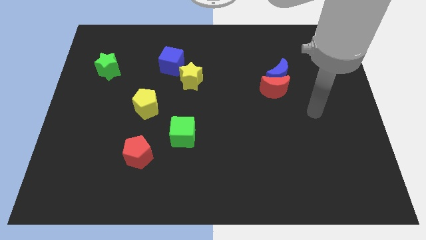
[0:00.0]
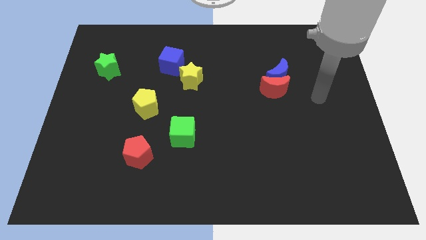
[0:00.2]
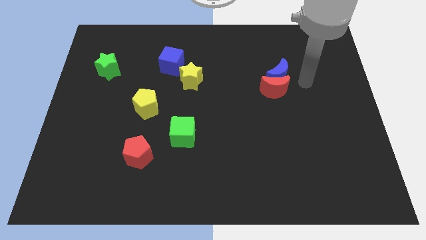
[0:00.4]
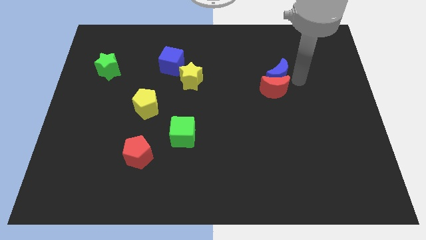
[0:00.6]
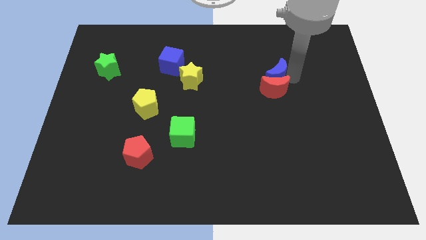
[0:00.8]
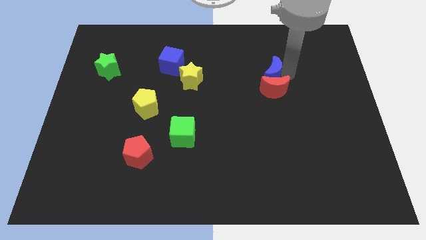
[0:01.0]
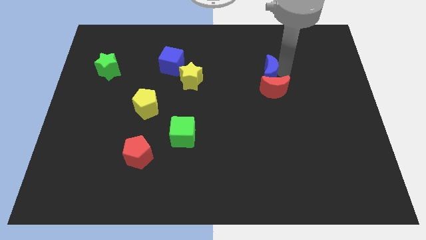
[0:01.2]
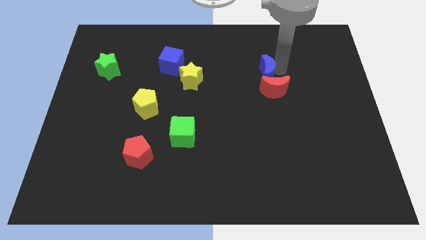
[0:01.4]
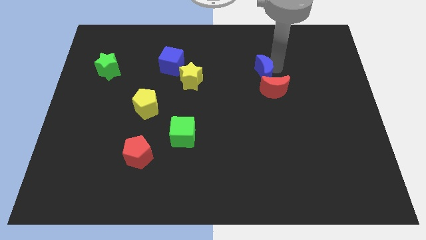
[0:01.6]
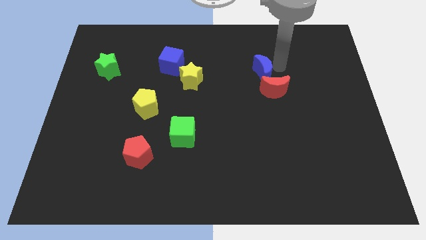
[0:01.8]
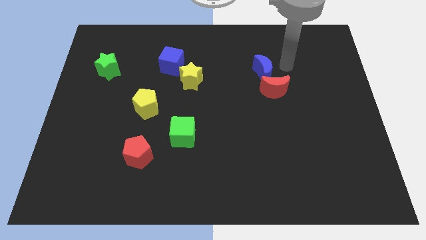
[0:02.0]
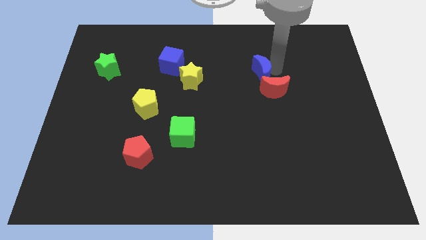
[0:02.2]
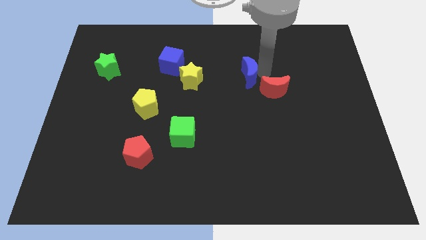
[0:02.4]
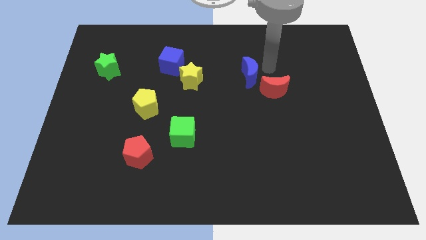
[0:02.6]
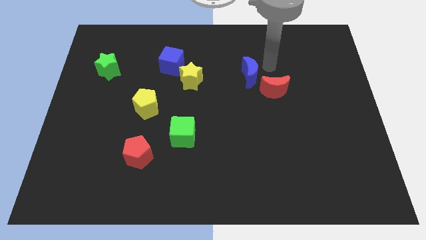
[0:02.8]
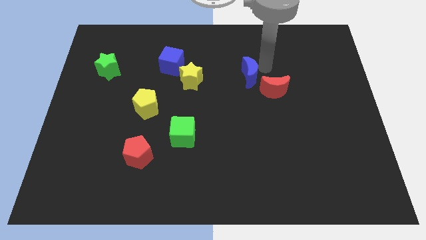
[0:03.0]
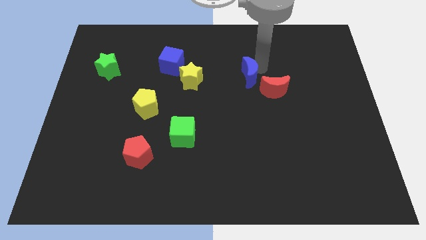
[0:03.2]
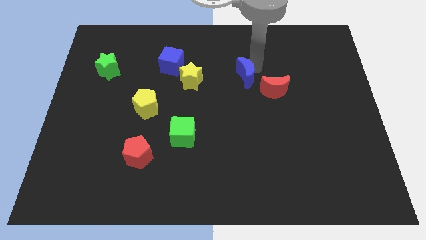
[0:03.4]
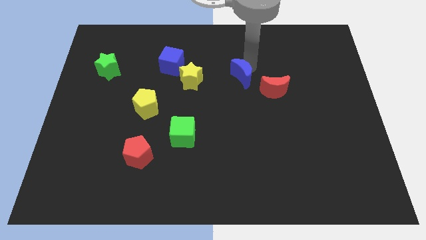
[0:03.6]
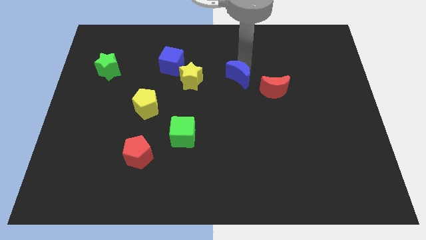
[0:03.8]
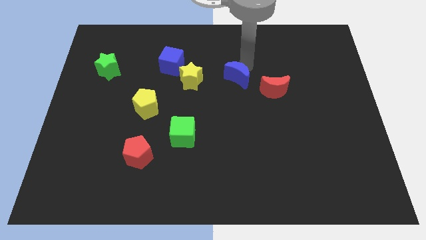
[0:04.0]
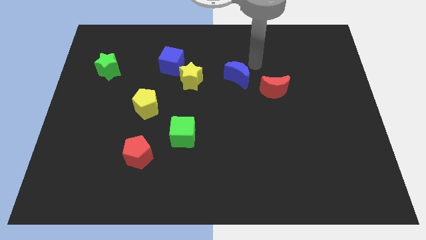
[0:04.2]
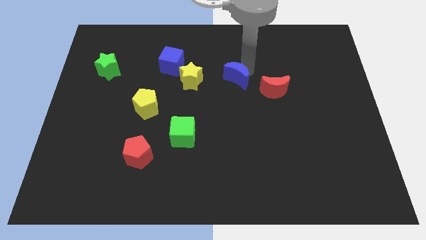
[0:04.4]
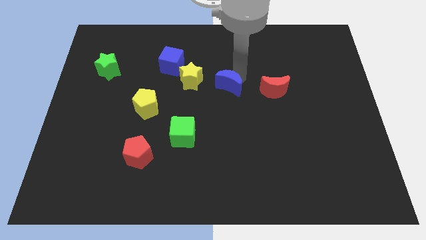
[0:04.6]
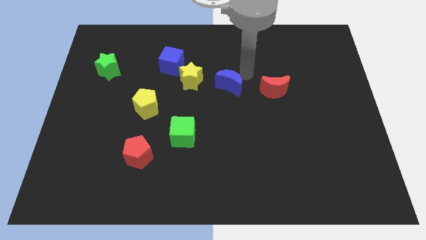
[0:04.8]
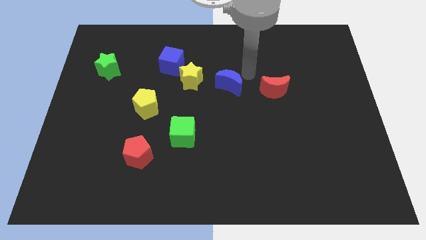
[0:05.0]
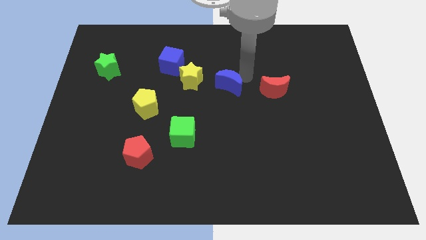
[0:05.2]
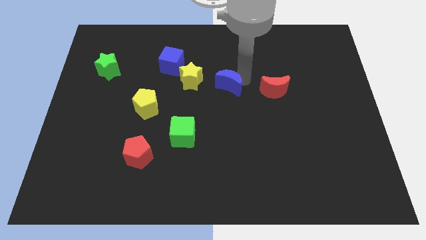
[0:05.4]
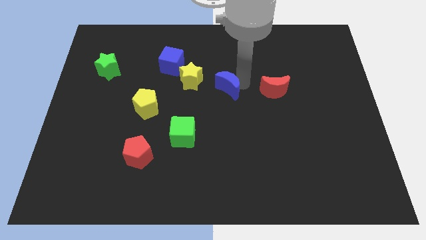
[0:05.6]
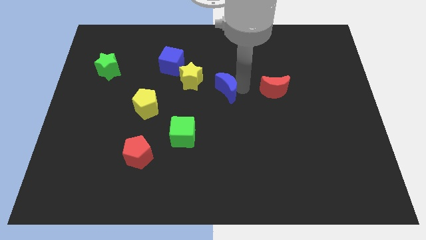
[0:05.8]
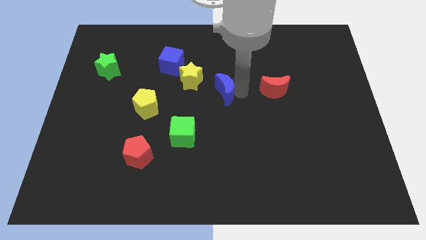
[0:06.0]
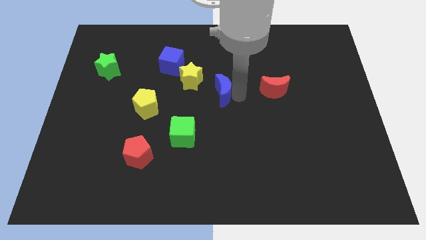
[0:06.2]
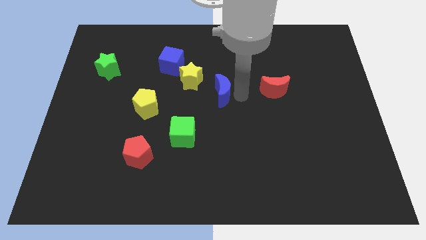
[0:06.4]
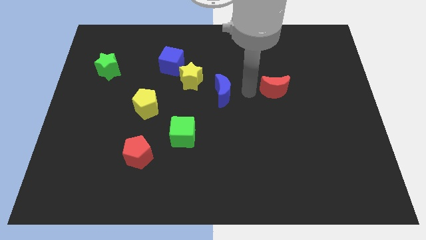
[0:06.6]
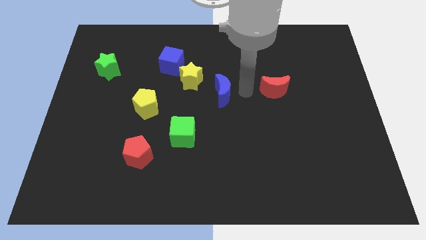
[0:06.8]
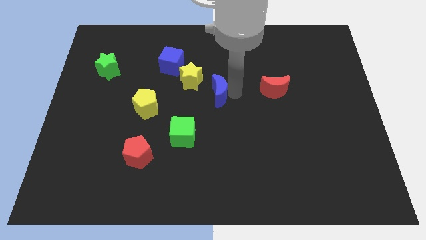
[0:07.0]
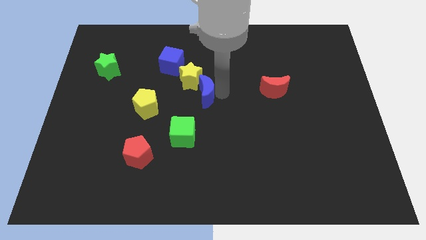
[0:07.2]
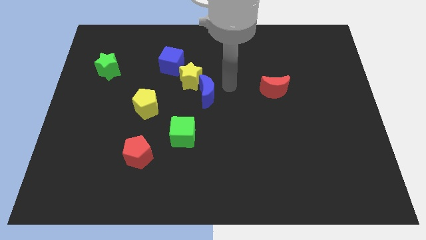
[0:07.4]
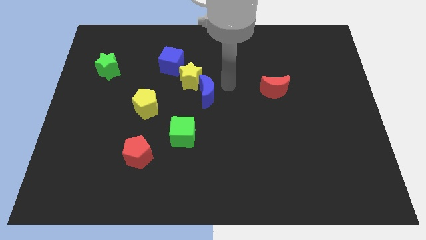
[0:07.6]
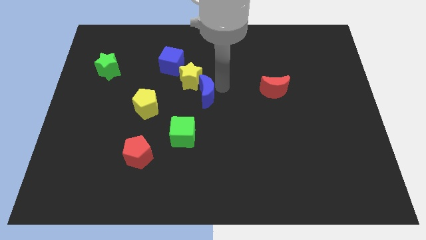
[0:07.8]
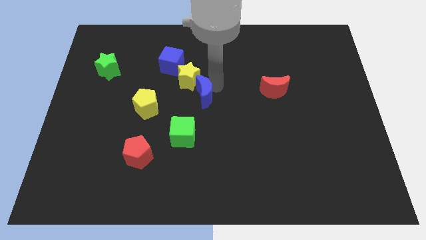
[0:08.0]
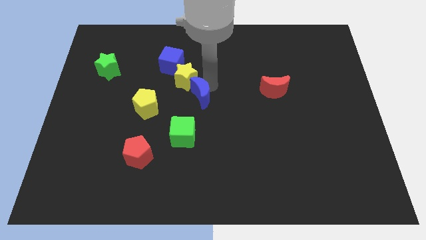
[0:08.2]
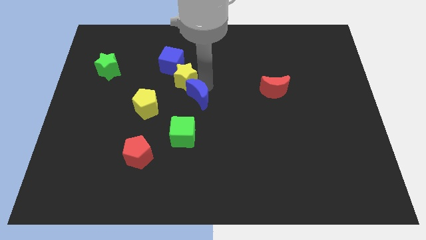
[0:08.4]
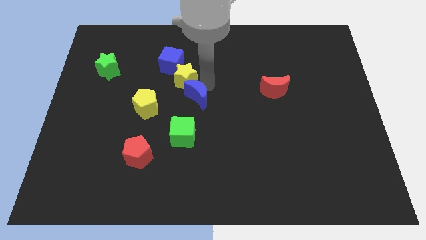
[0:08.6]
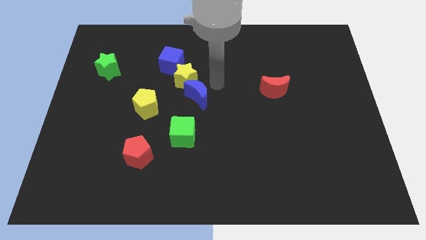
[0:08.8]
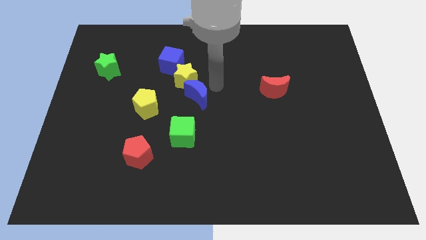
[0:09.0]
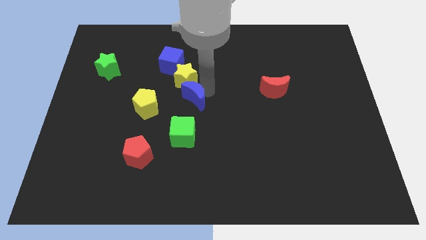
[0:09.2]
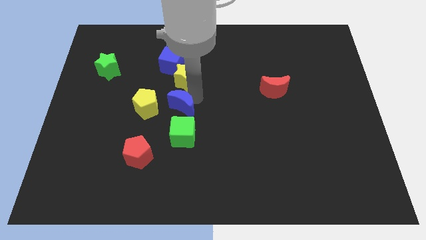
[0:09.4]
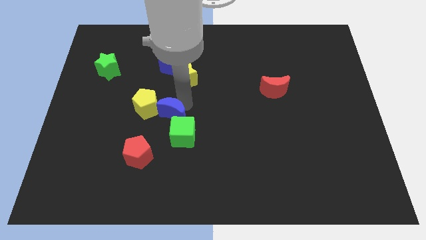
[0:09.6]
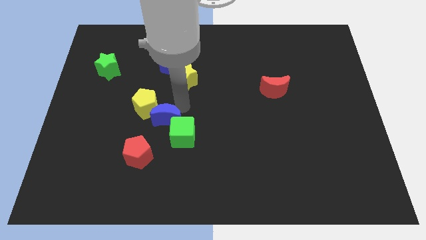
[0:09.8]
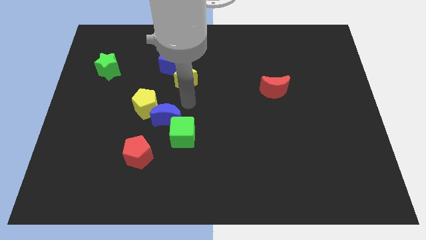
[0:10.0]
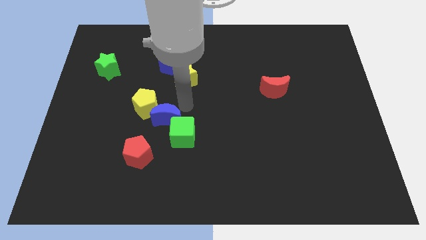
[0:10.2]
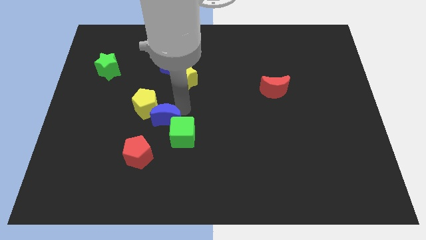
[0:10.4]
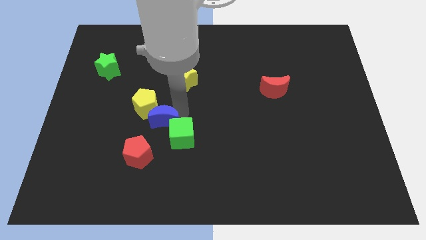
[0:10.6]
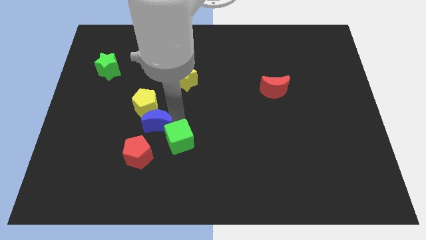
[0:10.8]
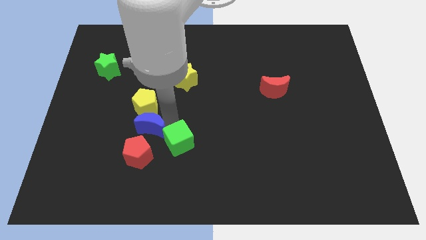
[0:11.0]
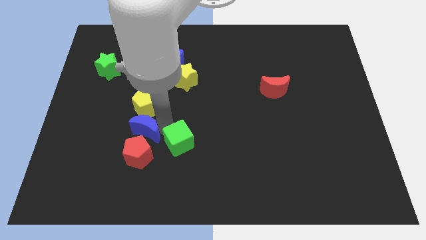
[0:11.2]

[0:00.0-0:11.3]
move the blue moon towards the red pentagon

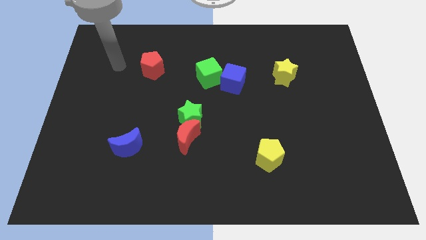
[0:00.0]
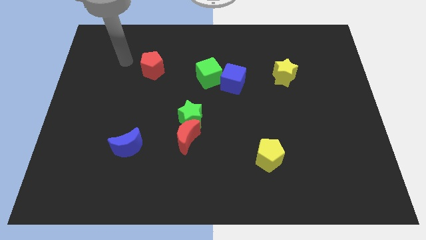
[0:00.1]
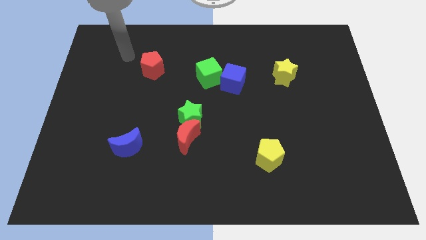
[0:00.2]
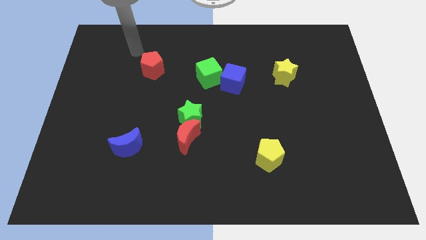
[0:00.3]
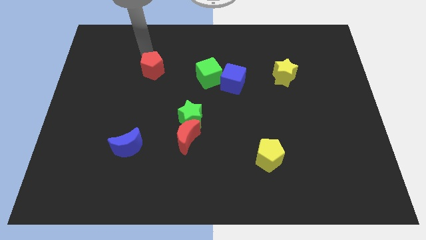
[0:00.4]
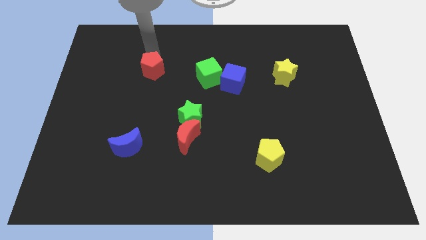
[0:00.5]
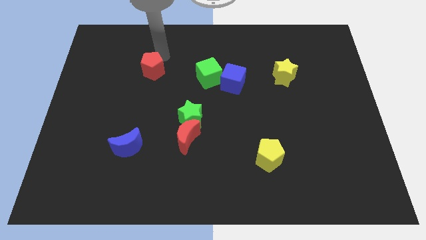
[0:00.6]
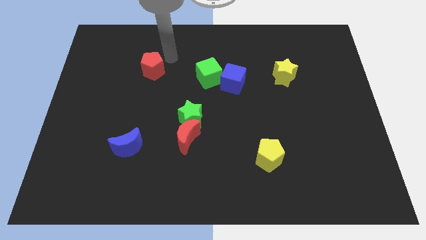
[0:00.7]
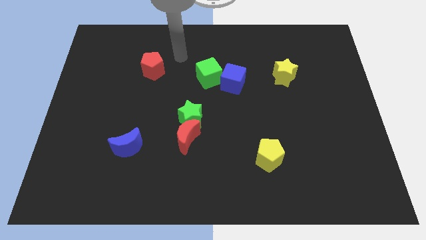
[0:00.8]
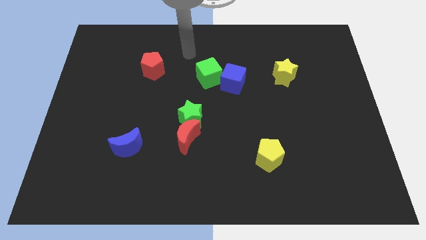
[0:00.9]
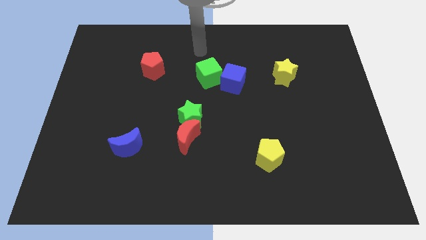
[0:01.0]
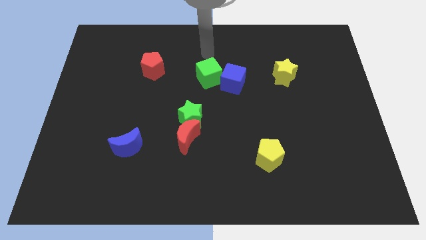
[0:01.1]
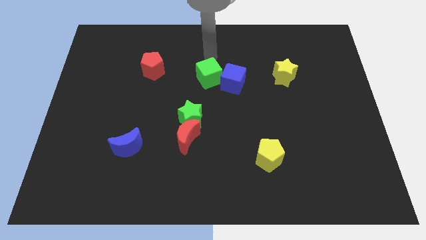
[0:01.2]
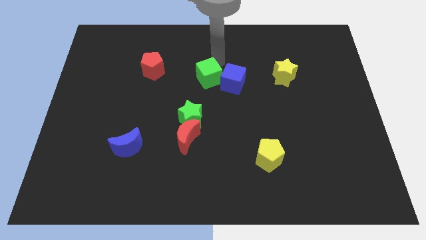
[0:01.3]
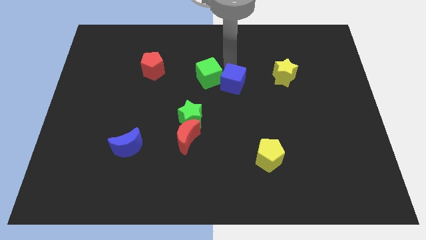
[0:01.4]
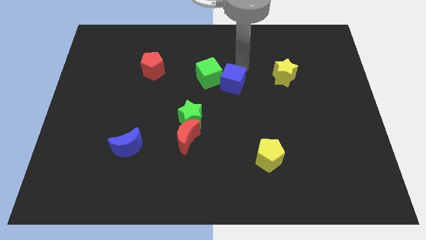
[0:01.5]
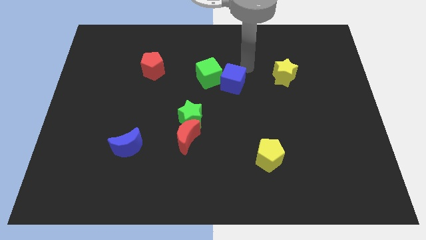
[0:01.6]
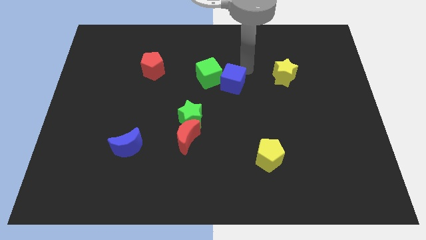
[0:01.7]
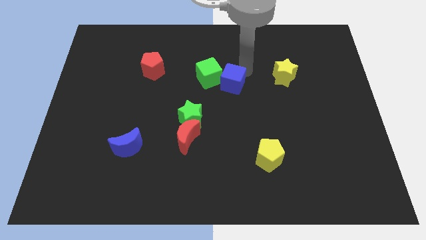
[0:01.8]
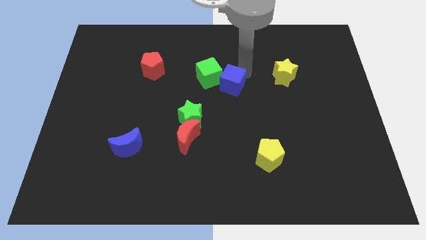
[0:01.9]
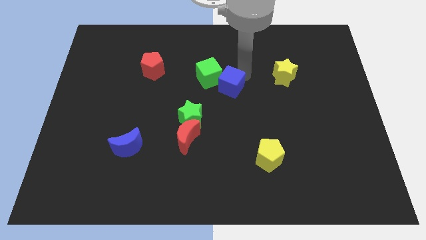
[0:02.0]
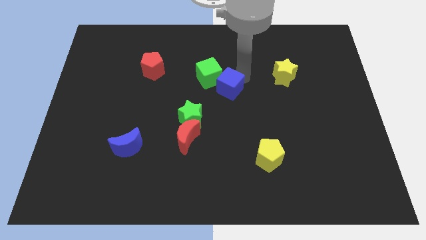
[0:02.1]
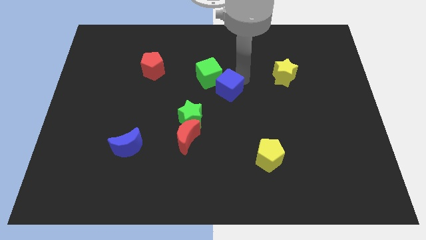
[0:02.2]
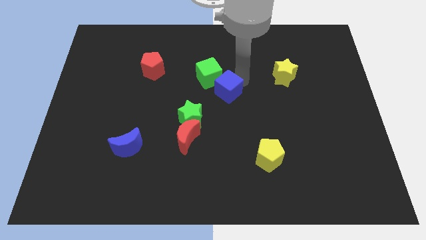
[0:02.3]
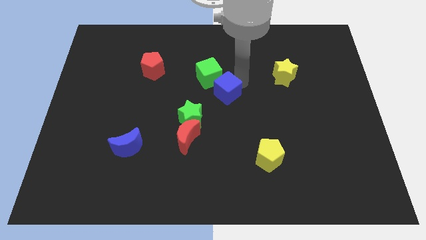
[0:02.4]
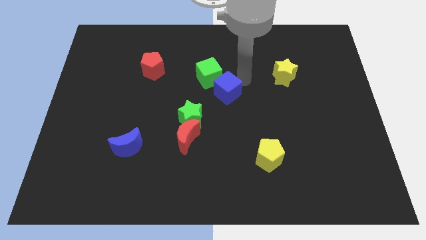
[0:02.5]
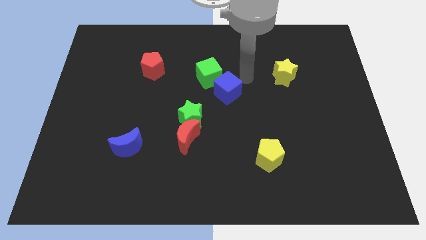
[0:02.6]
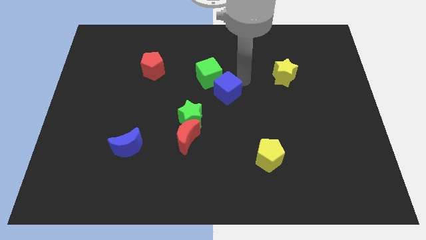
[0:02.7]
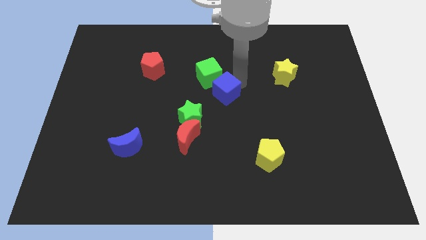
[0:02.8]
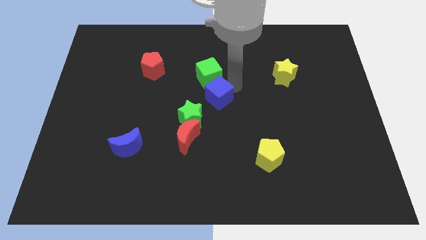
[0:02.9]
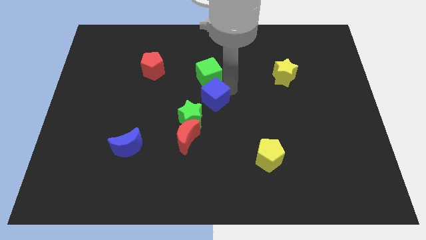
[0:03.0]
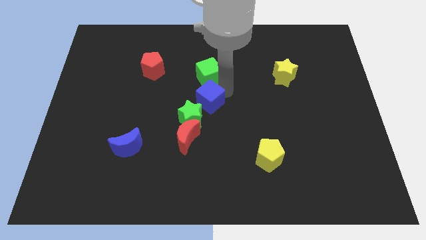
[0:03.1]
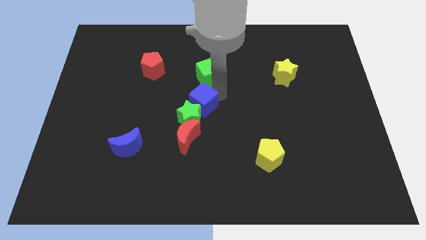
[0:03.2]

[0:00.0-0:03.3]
slide the blue cube next to the green star
